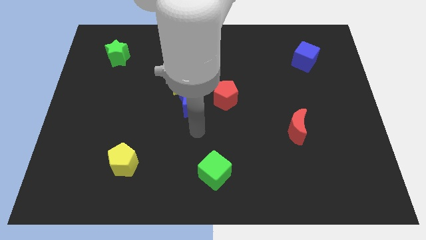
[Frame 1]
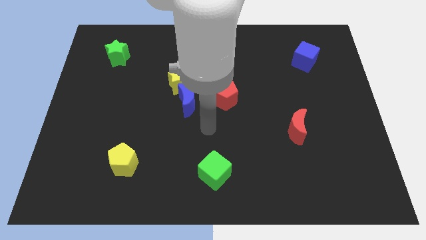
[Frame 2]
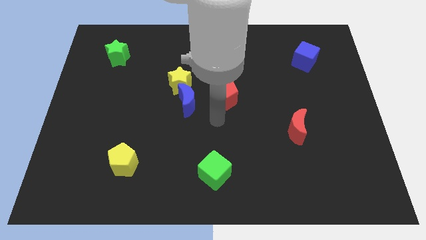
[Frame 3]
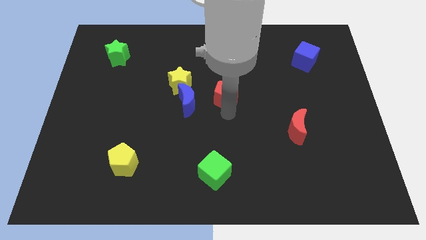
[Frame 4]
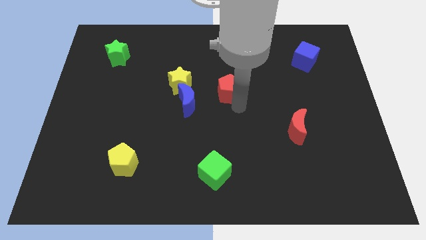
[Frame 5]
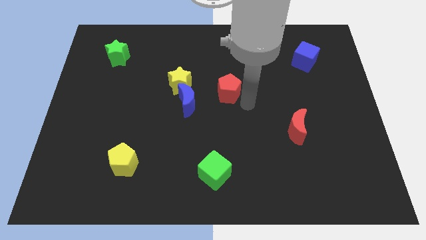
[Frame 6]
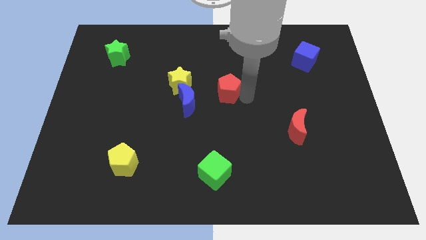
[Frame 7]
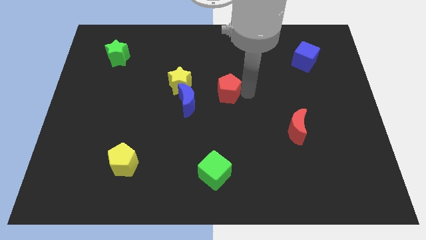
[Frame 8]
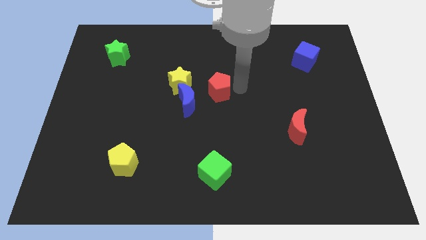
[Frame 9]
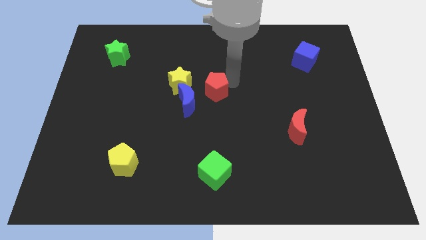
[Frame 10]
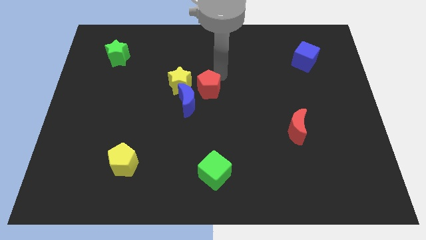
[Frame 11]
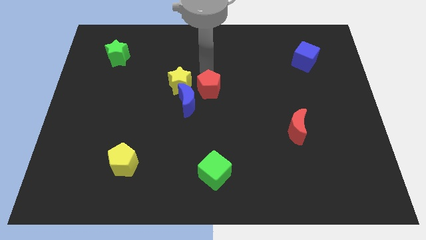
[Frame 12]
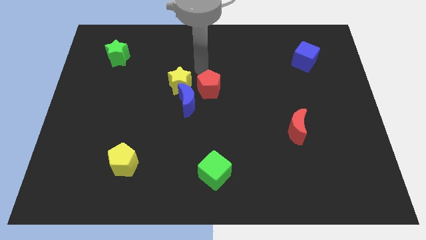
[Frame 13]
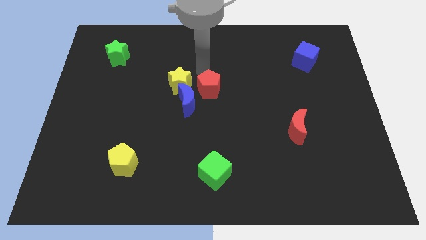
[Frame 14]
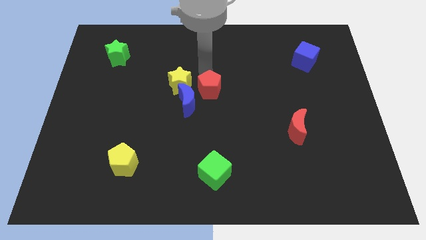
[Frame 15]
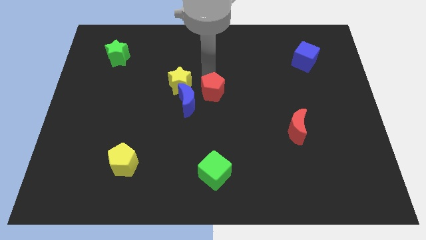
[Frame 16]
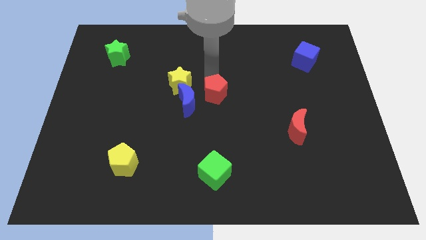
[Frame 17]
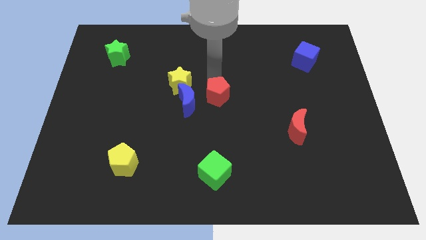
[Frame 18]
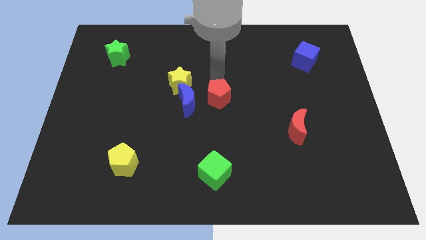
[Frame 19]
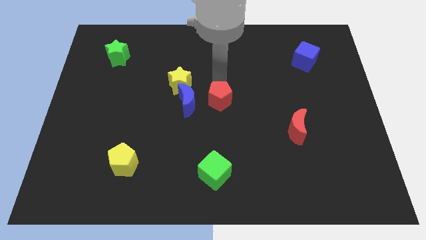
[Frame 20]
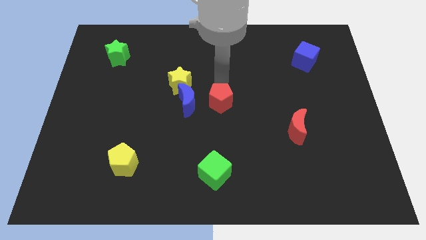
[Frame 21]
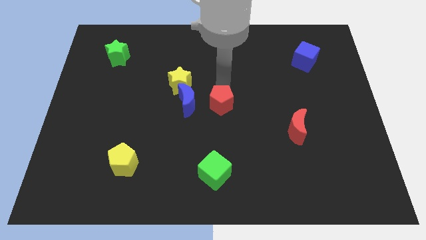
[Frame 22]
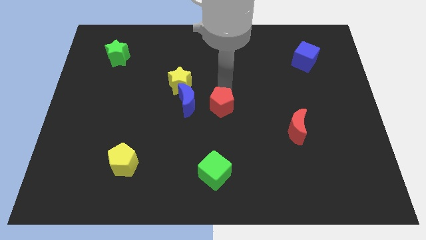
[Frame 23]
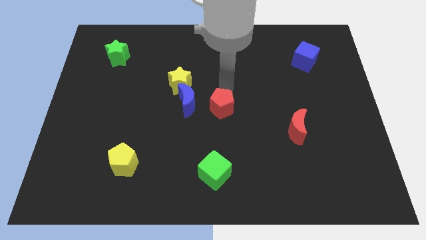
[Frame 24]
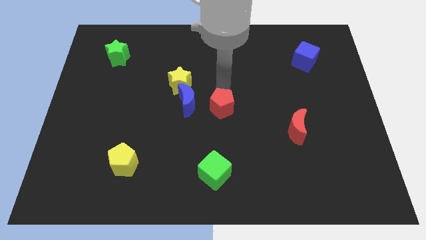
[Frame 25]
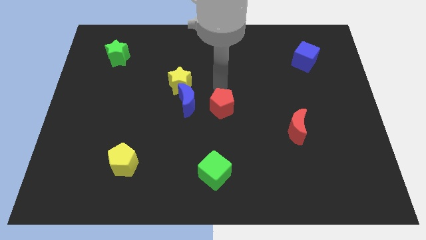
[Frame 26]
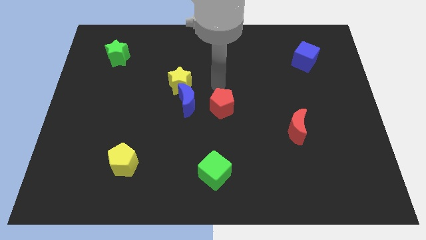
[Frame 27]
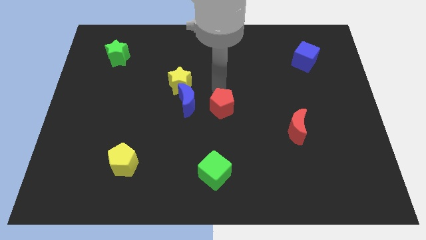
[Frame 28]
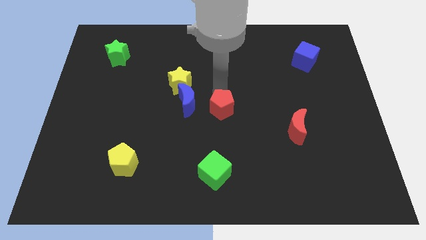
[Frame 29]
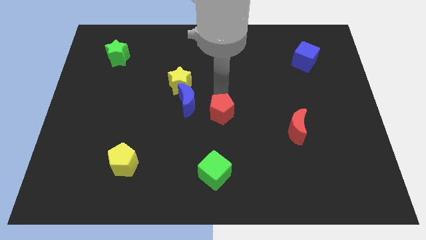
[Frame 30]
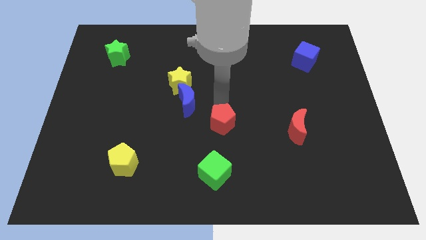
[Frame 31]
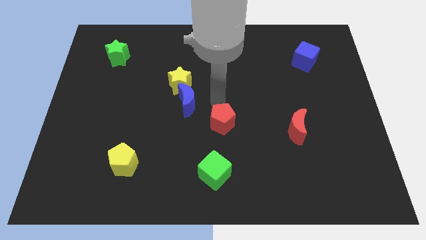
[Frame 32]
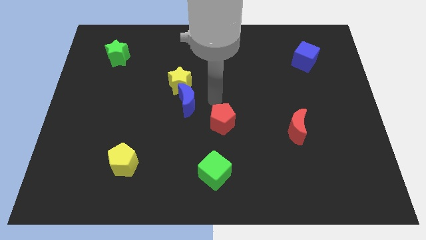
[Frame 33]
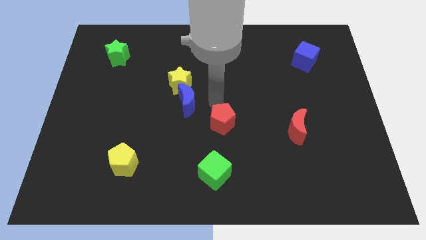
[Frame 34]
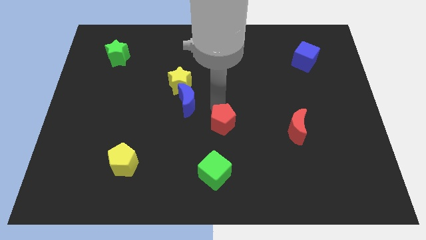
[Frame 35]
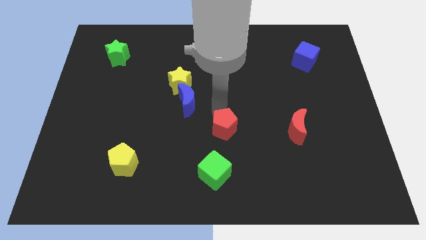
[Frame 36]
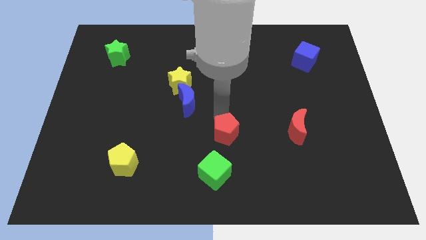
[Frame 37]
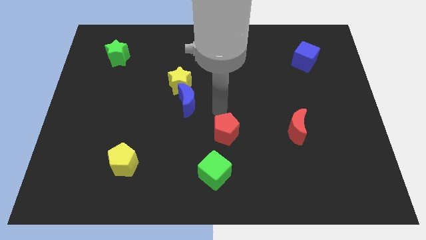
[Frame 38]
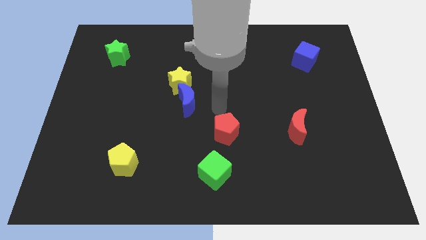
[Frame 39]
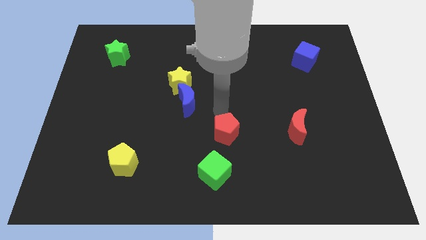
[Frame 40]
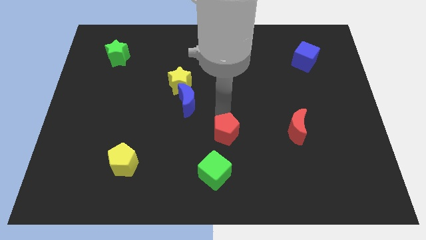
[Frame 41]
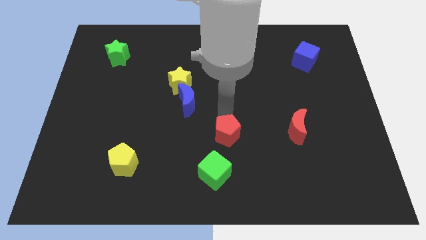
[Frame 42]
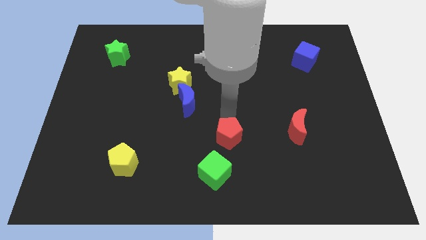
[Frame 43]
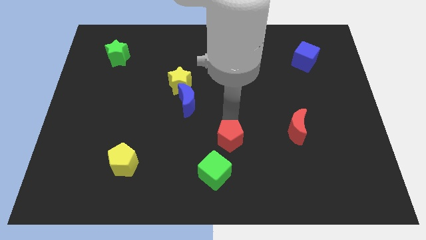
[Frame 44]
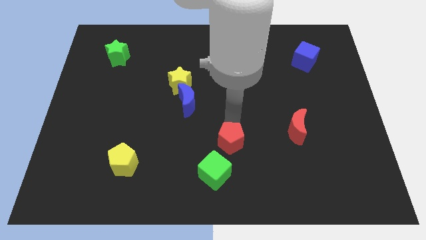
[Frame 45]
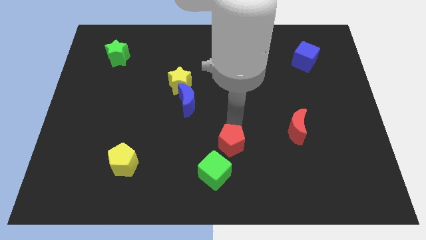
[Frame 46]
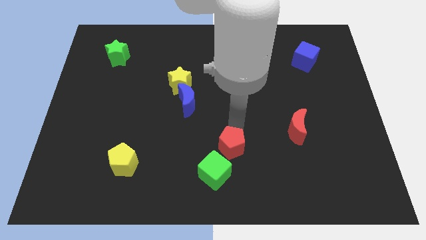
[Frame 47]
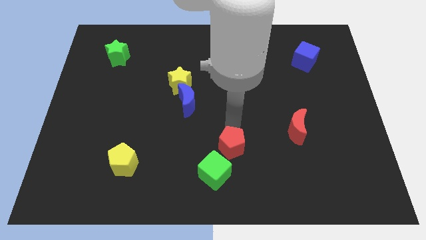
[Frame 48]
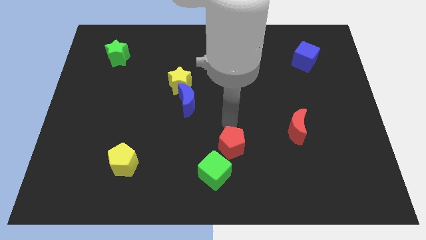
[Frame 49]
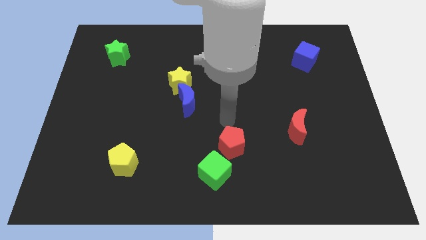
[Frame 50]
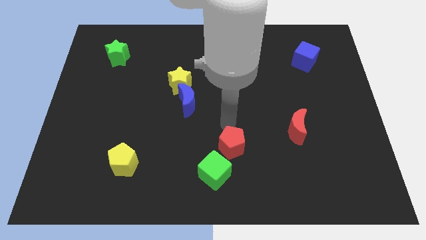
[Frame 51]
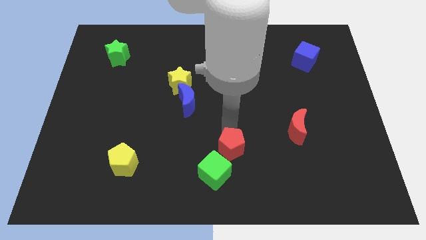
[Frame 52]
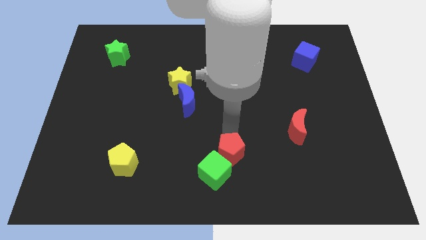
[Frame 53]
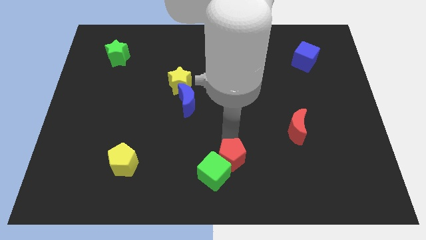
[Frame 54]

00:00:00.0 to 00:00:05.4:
move the red pentagon to the bottom

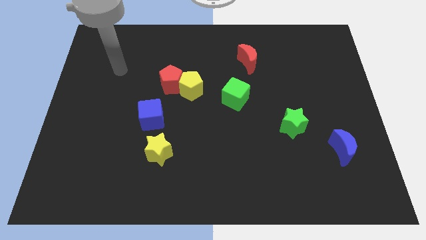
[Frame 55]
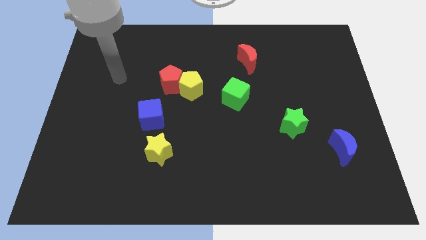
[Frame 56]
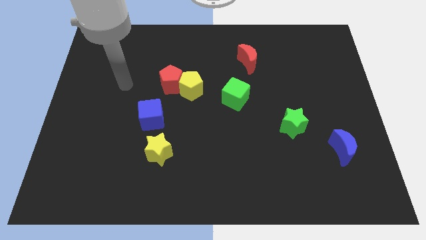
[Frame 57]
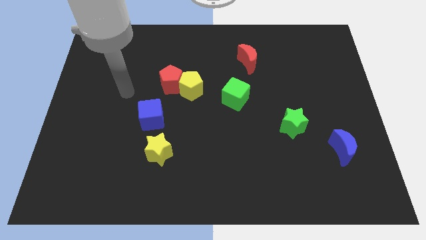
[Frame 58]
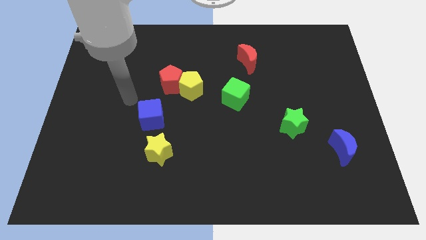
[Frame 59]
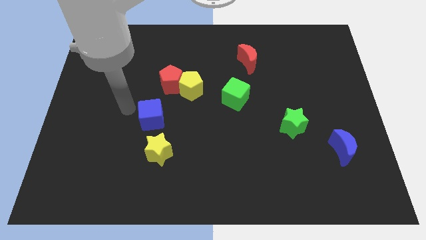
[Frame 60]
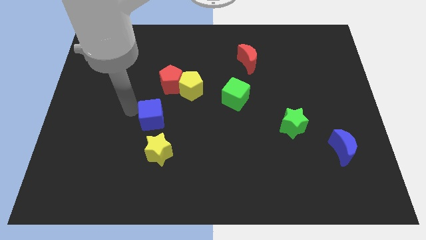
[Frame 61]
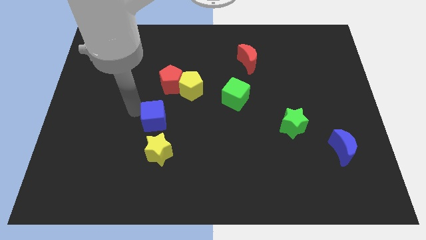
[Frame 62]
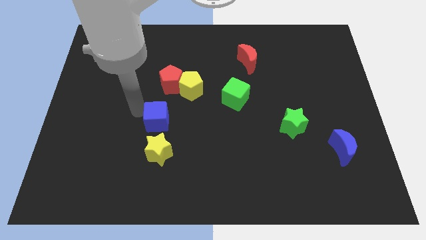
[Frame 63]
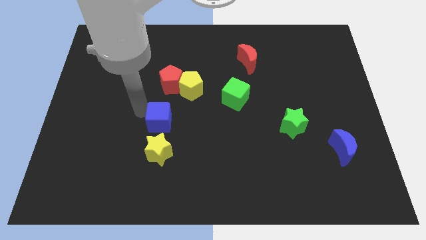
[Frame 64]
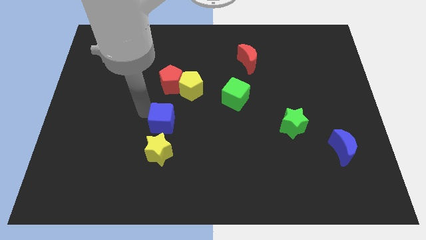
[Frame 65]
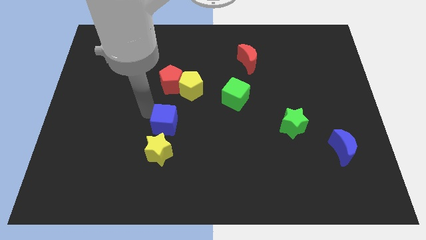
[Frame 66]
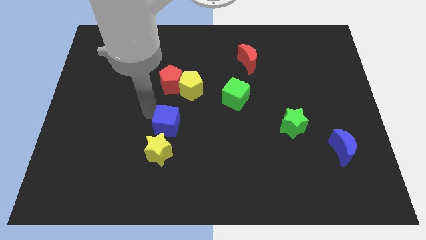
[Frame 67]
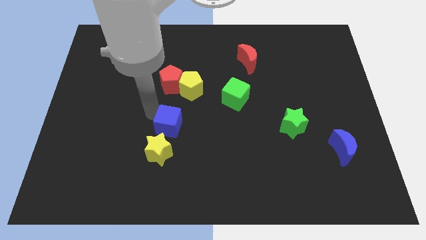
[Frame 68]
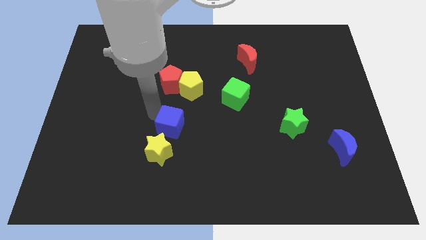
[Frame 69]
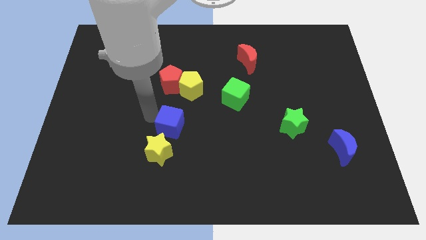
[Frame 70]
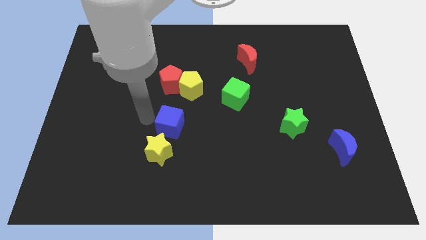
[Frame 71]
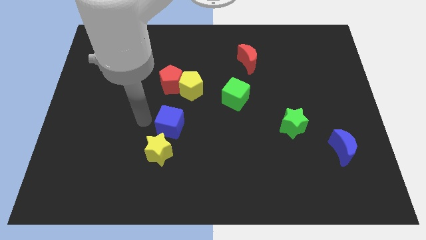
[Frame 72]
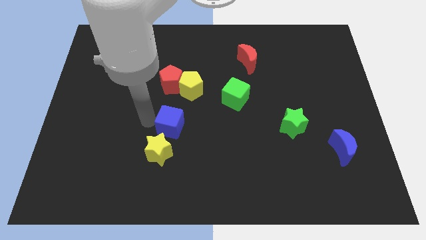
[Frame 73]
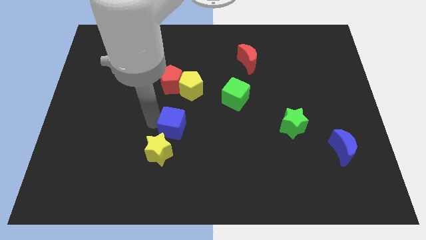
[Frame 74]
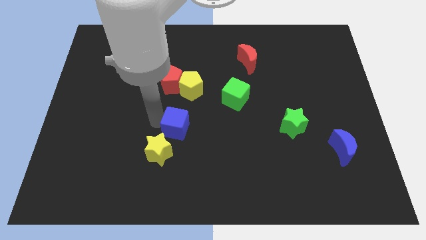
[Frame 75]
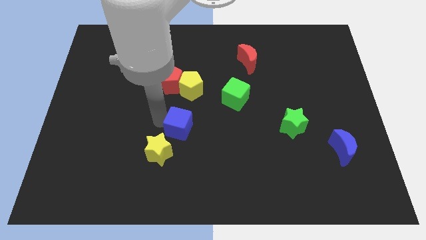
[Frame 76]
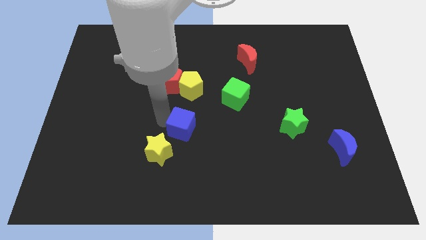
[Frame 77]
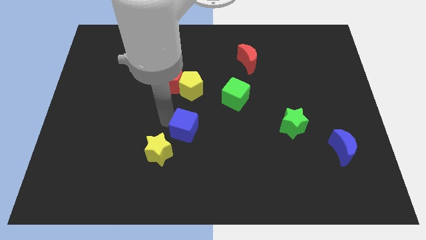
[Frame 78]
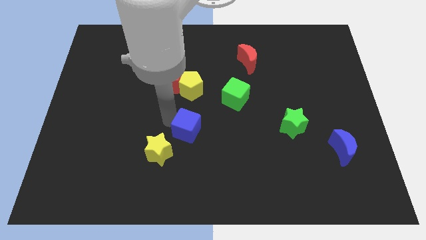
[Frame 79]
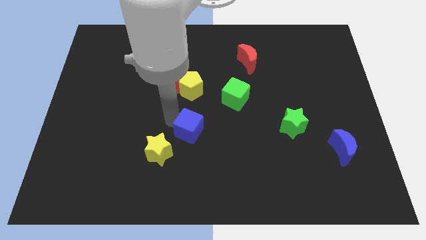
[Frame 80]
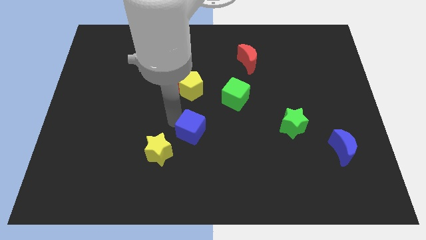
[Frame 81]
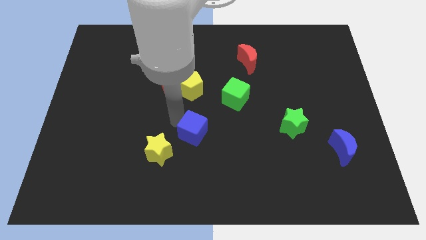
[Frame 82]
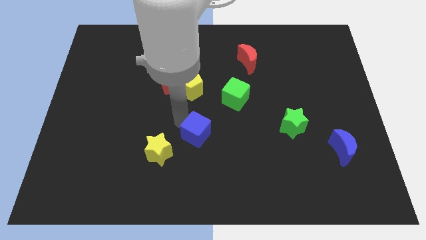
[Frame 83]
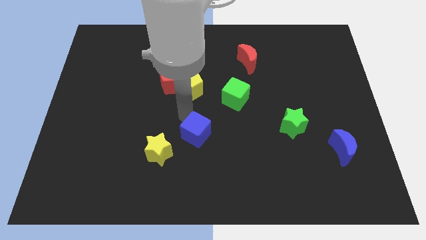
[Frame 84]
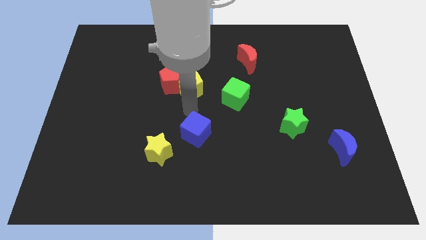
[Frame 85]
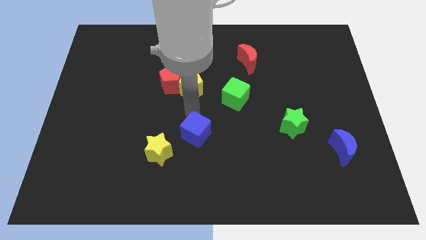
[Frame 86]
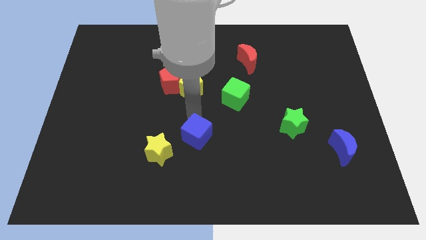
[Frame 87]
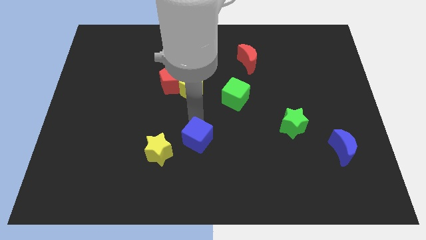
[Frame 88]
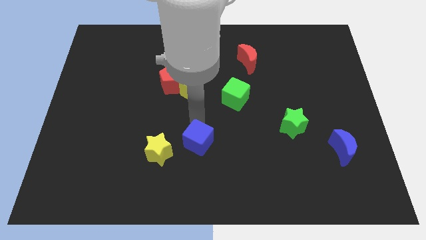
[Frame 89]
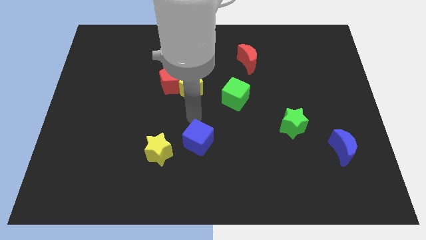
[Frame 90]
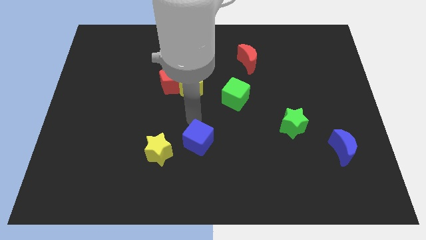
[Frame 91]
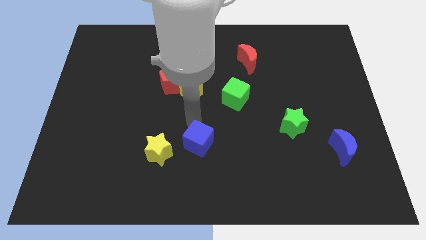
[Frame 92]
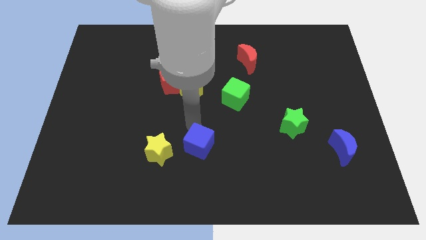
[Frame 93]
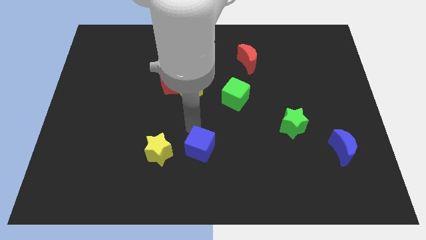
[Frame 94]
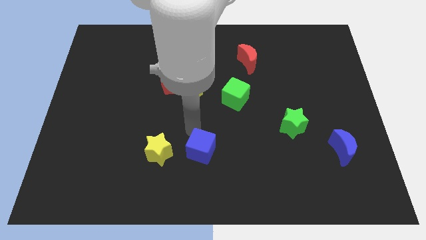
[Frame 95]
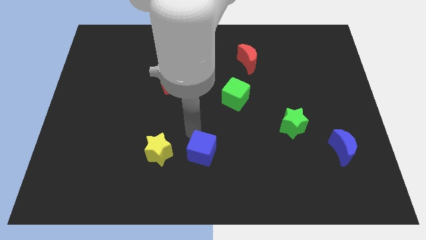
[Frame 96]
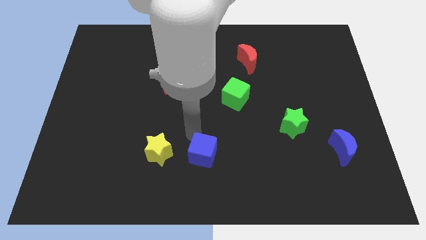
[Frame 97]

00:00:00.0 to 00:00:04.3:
put the blue cube to the bottom
